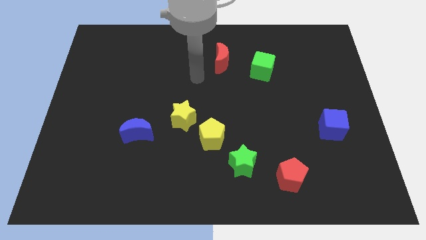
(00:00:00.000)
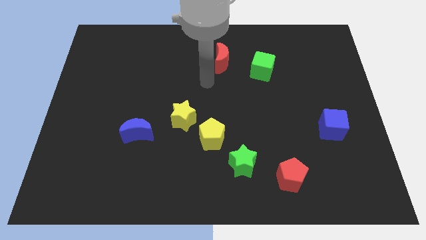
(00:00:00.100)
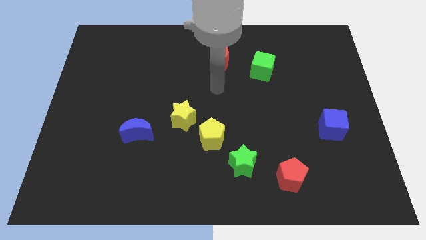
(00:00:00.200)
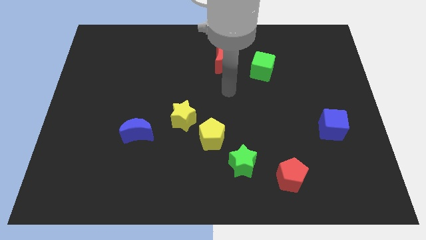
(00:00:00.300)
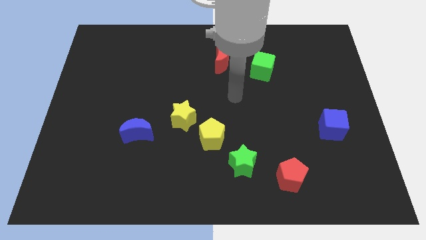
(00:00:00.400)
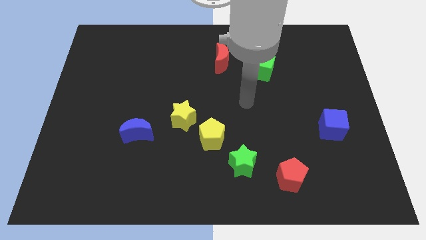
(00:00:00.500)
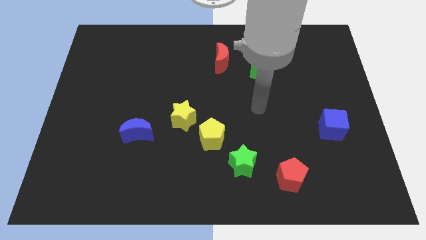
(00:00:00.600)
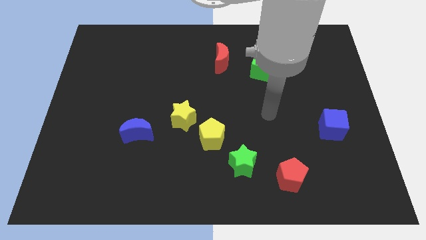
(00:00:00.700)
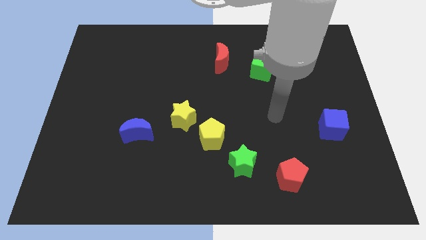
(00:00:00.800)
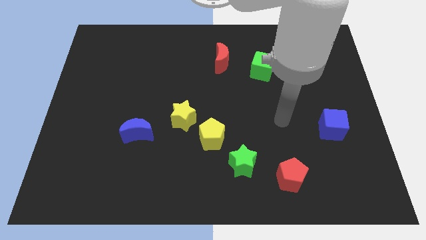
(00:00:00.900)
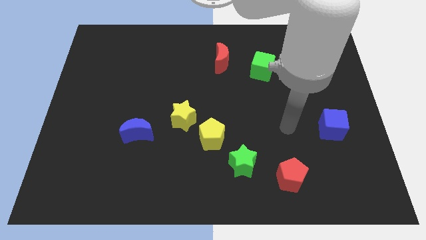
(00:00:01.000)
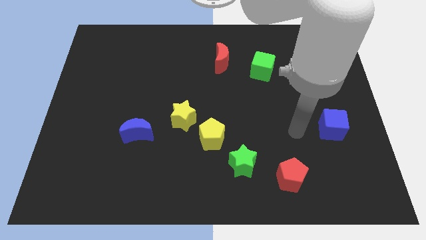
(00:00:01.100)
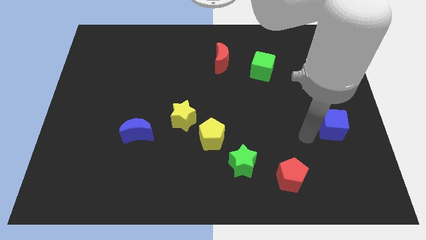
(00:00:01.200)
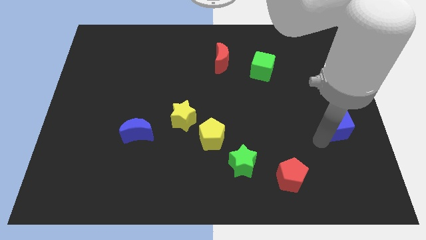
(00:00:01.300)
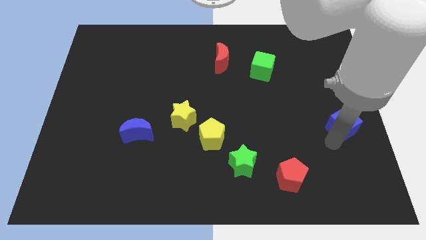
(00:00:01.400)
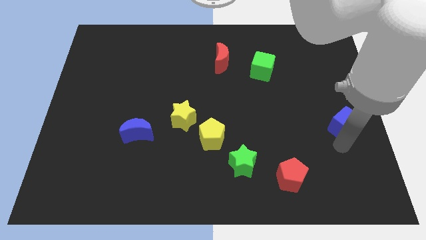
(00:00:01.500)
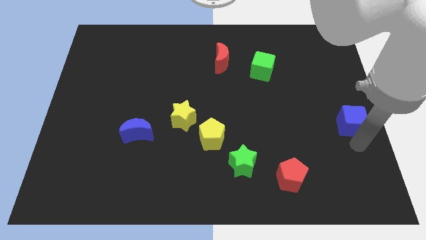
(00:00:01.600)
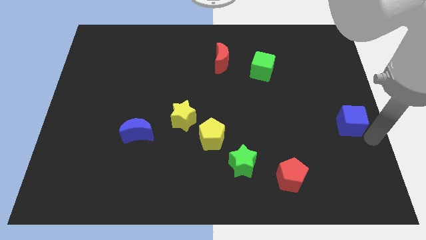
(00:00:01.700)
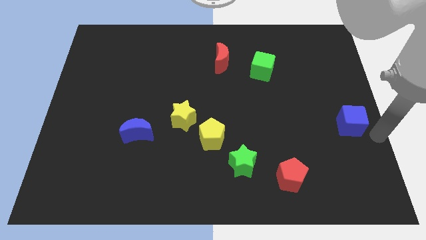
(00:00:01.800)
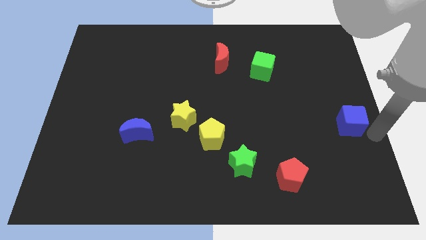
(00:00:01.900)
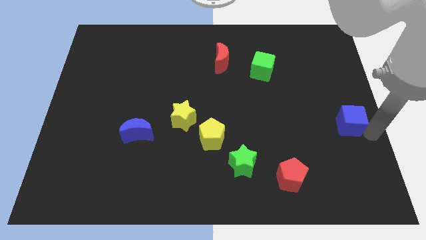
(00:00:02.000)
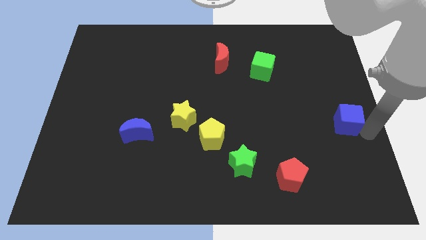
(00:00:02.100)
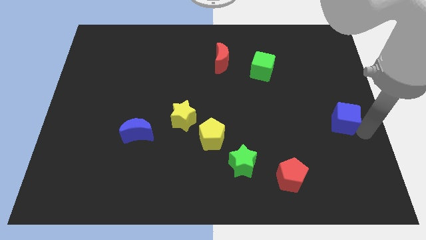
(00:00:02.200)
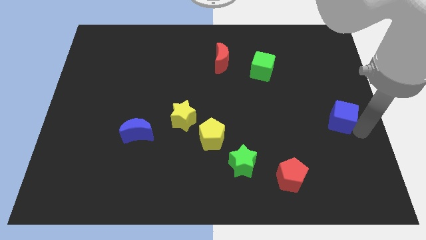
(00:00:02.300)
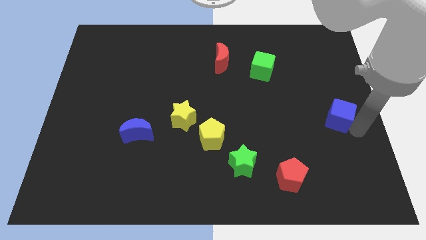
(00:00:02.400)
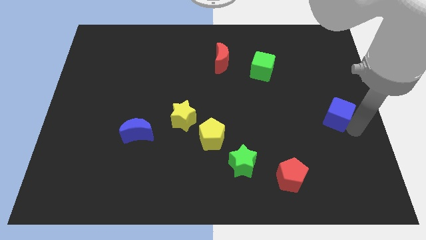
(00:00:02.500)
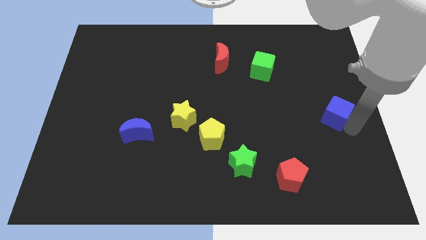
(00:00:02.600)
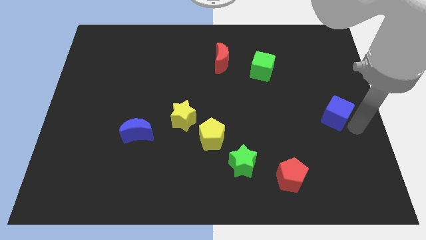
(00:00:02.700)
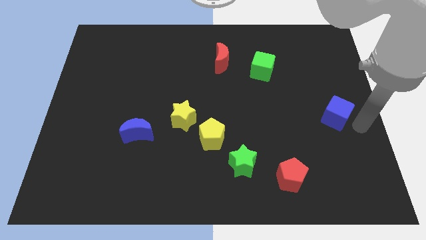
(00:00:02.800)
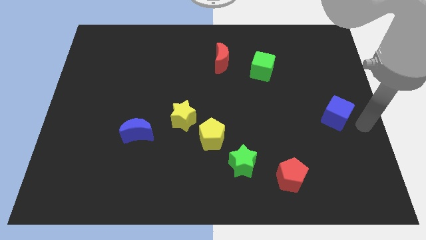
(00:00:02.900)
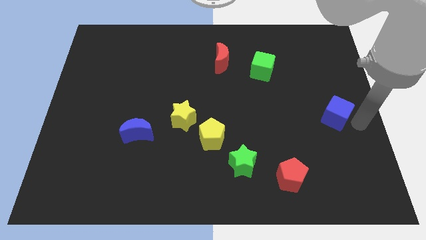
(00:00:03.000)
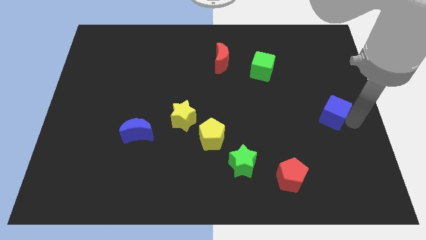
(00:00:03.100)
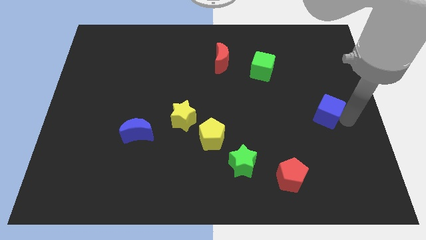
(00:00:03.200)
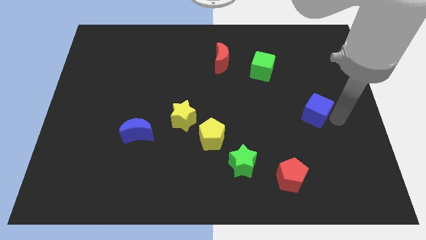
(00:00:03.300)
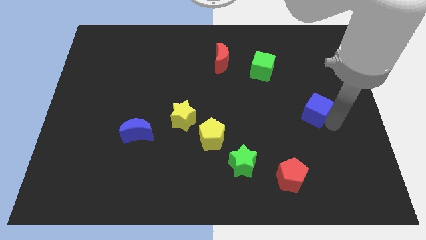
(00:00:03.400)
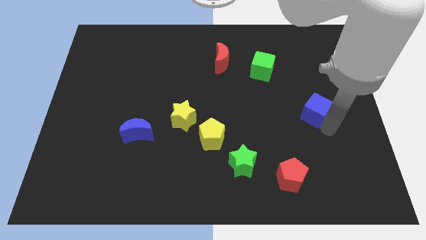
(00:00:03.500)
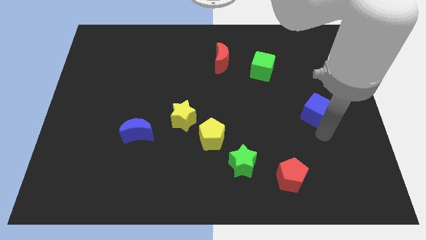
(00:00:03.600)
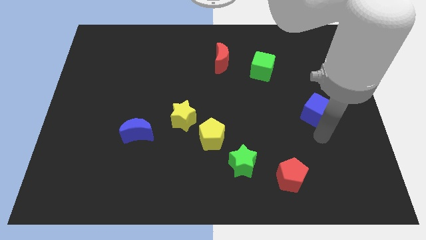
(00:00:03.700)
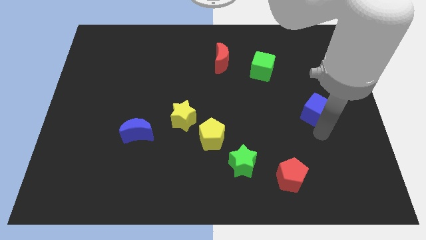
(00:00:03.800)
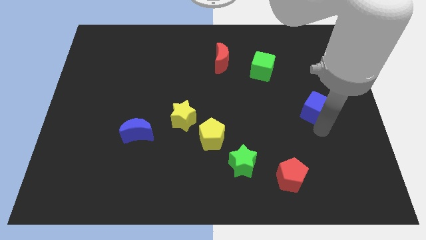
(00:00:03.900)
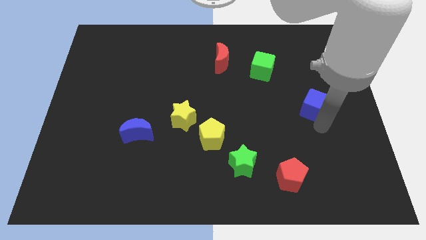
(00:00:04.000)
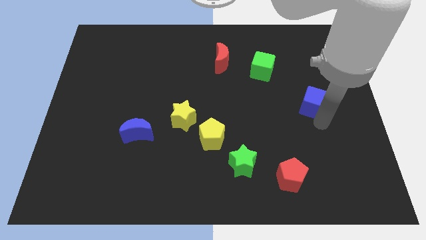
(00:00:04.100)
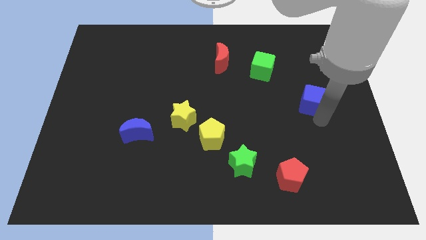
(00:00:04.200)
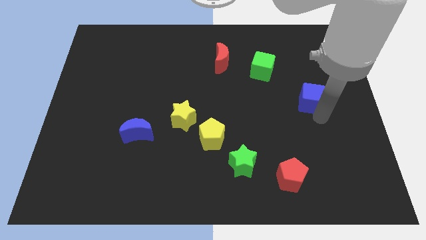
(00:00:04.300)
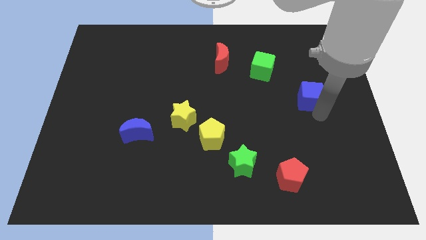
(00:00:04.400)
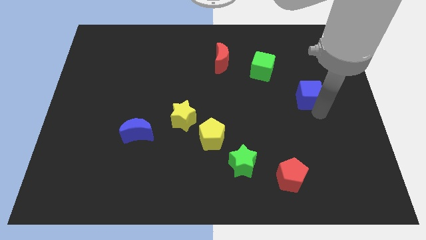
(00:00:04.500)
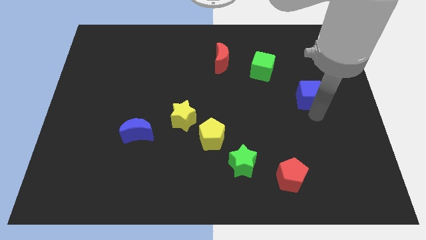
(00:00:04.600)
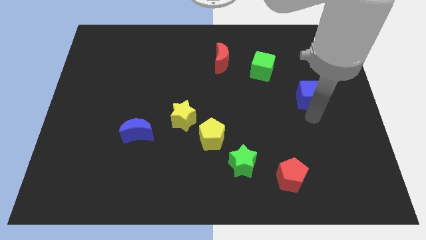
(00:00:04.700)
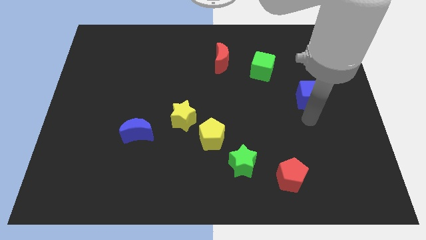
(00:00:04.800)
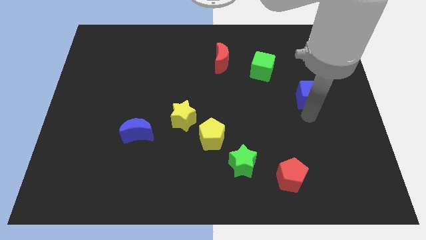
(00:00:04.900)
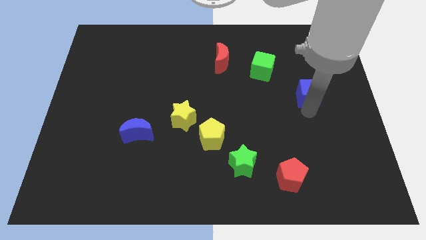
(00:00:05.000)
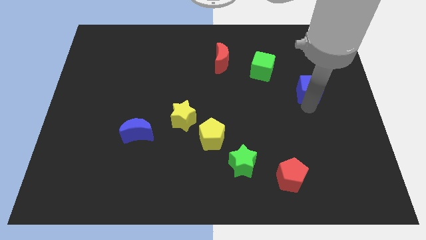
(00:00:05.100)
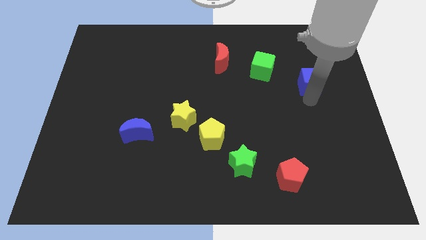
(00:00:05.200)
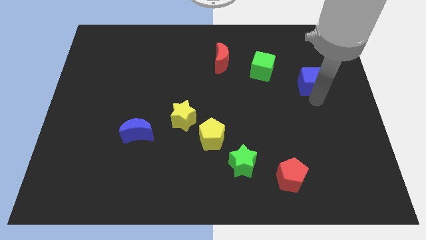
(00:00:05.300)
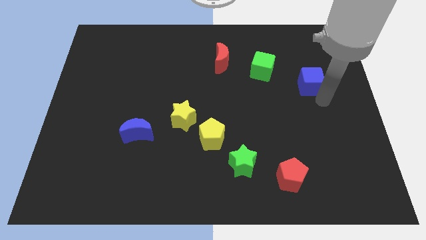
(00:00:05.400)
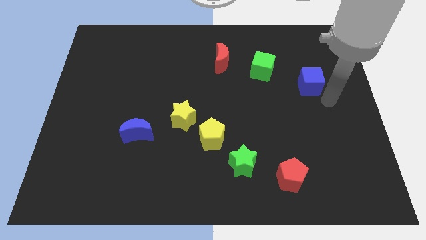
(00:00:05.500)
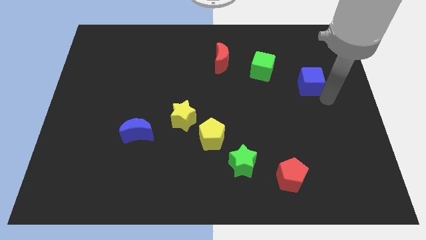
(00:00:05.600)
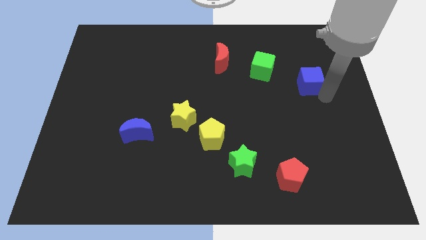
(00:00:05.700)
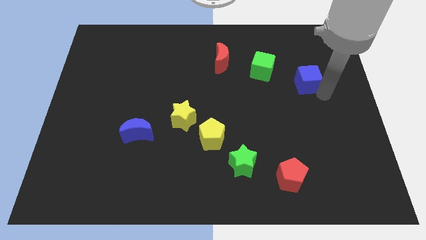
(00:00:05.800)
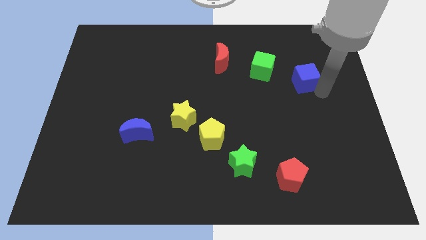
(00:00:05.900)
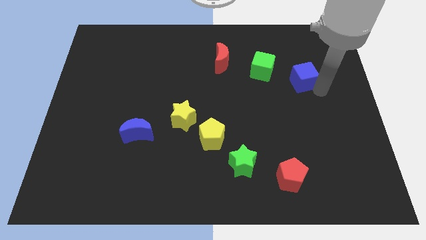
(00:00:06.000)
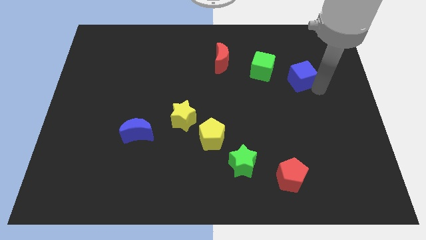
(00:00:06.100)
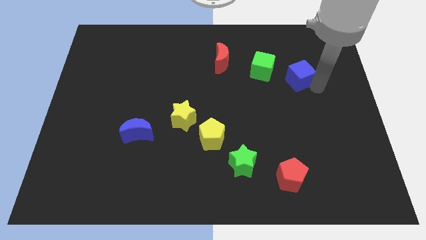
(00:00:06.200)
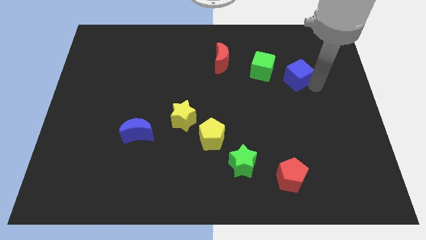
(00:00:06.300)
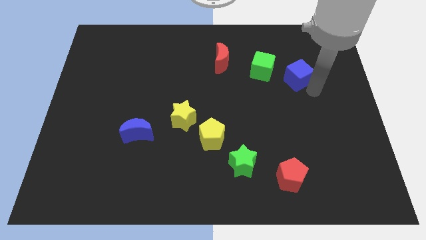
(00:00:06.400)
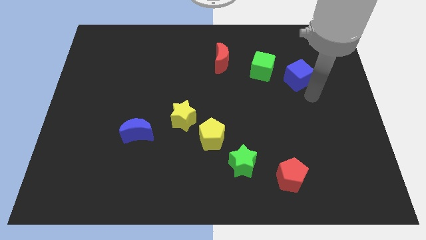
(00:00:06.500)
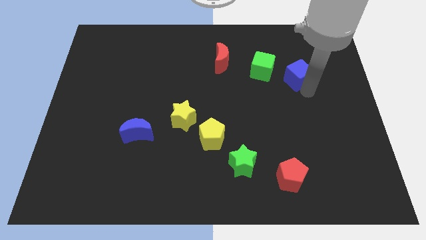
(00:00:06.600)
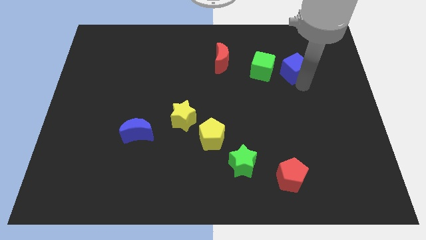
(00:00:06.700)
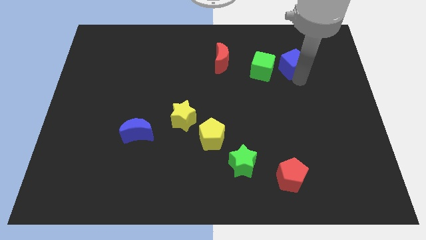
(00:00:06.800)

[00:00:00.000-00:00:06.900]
move the blue cube to the top right of the green cube

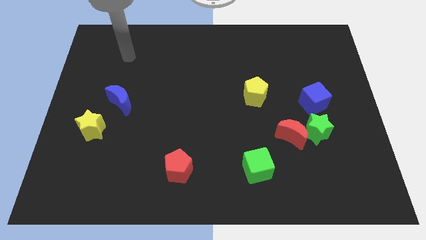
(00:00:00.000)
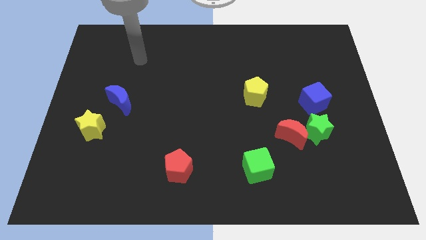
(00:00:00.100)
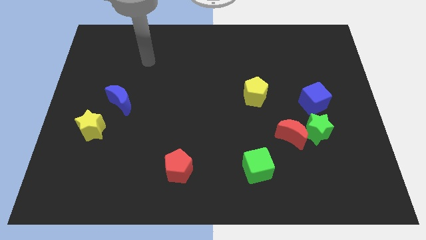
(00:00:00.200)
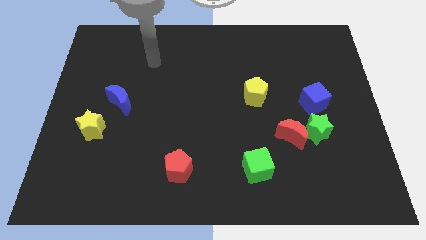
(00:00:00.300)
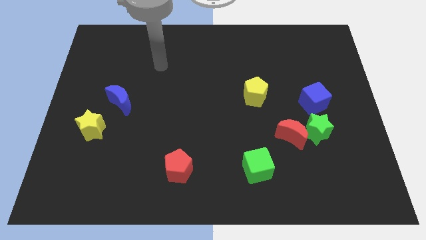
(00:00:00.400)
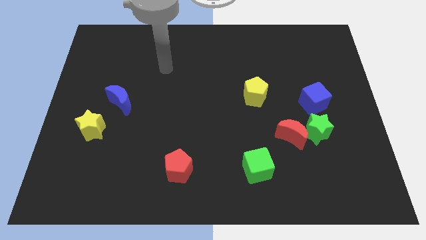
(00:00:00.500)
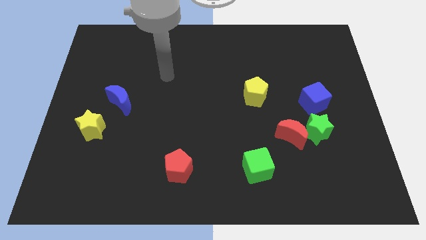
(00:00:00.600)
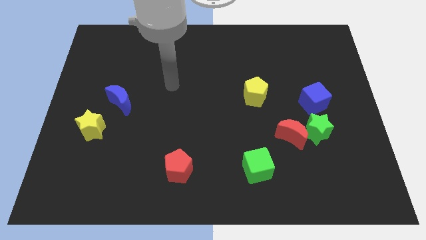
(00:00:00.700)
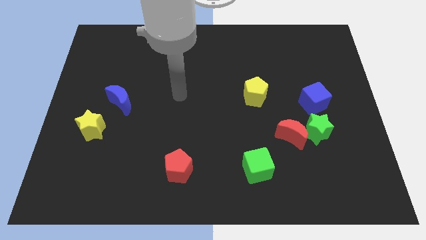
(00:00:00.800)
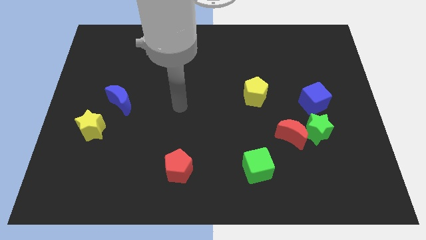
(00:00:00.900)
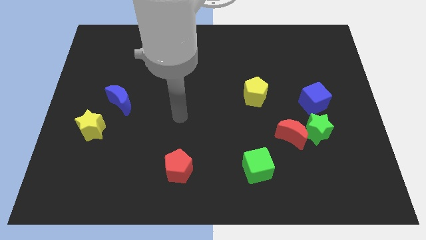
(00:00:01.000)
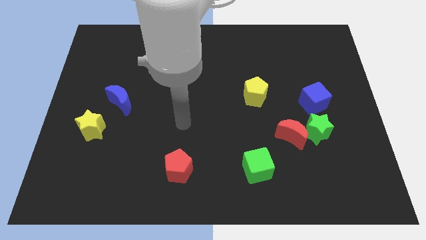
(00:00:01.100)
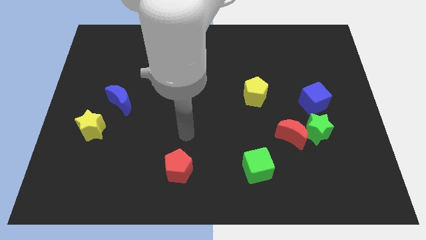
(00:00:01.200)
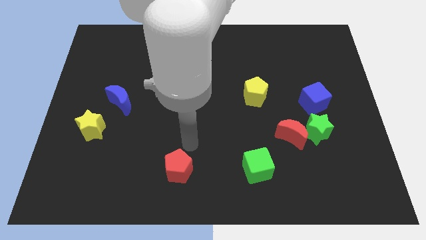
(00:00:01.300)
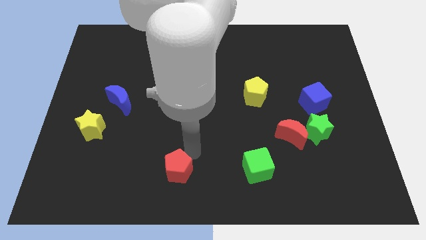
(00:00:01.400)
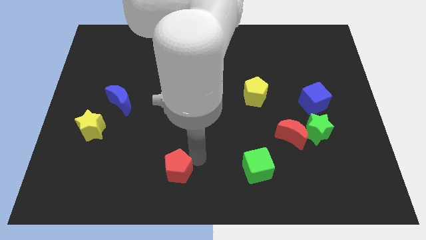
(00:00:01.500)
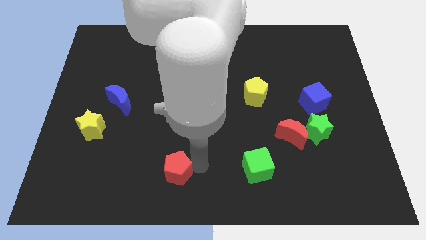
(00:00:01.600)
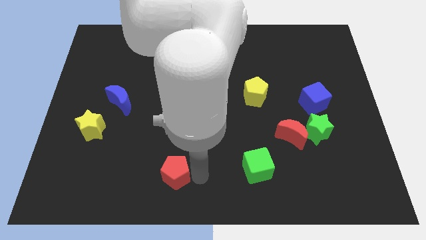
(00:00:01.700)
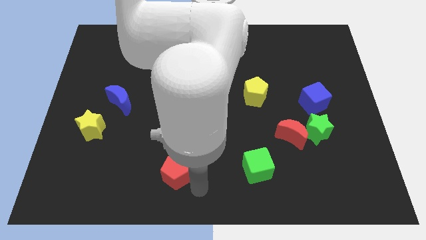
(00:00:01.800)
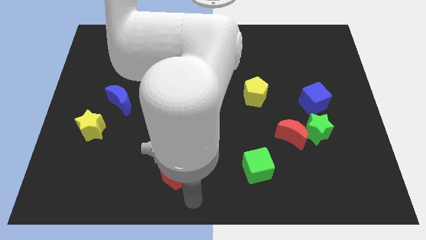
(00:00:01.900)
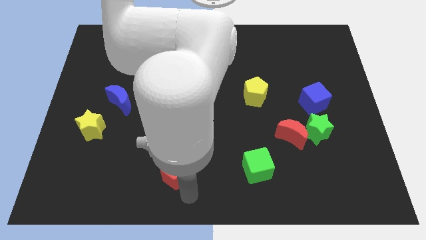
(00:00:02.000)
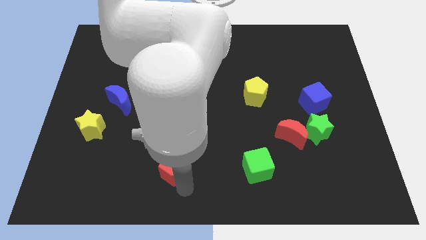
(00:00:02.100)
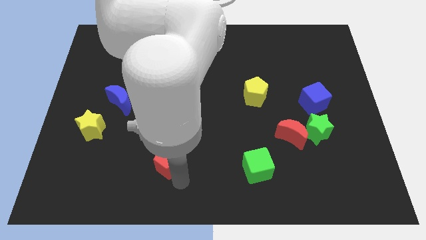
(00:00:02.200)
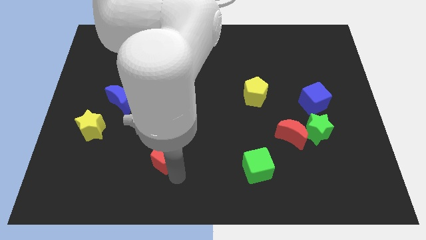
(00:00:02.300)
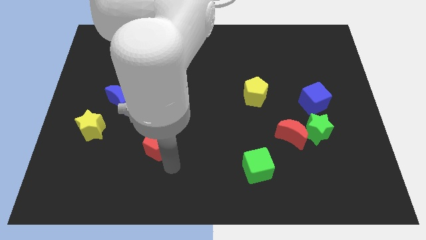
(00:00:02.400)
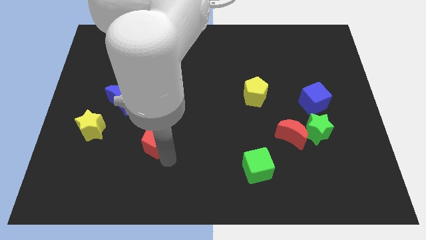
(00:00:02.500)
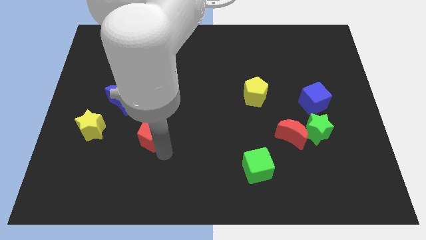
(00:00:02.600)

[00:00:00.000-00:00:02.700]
slide the red pentagon to the right side of the yellow star
